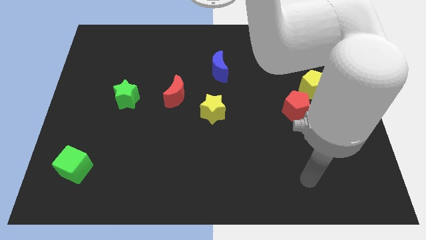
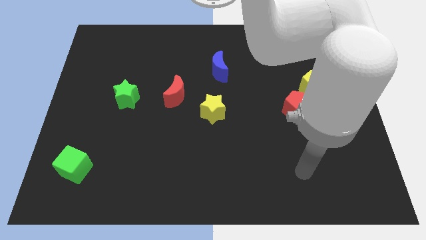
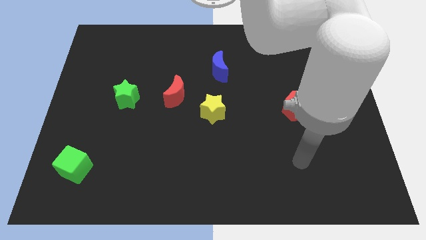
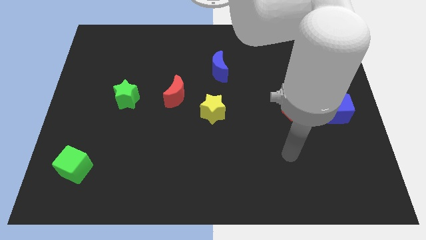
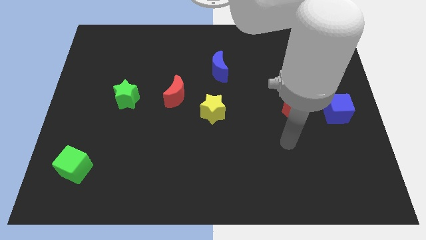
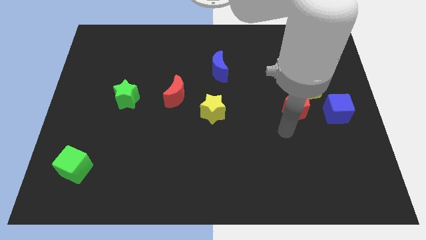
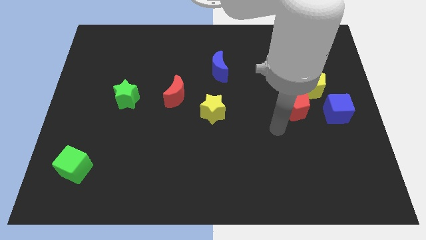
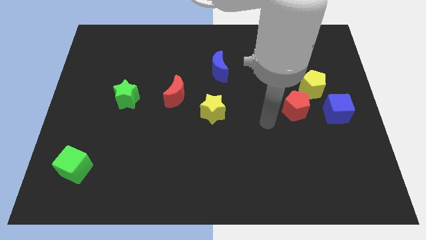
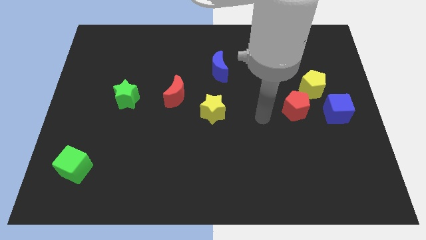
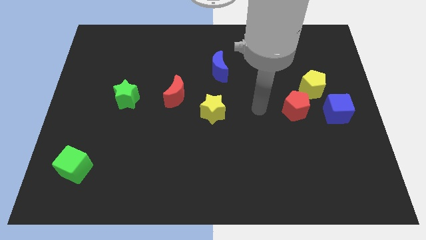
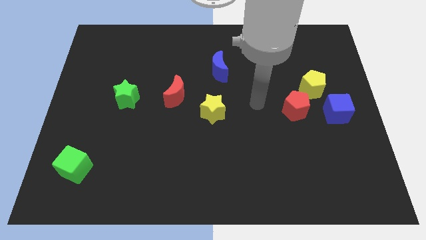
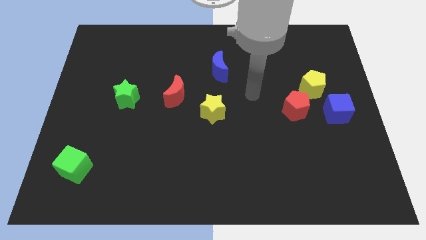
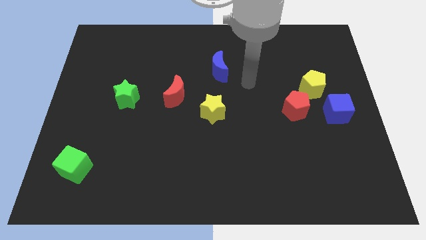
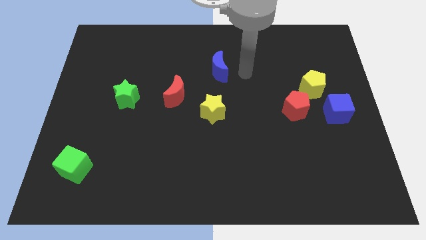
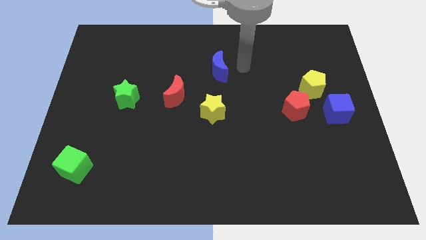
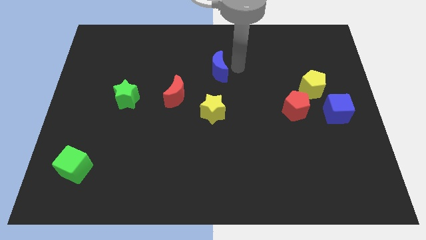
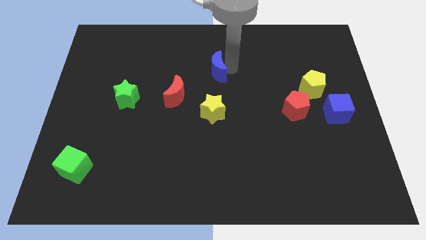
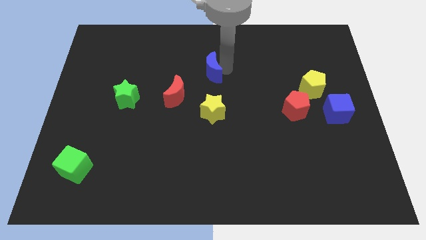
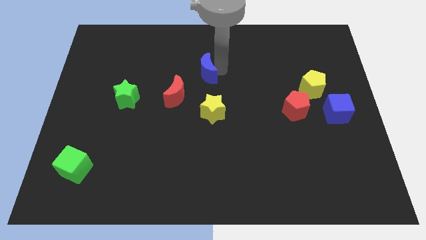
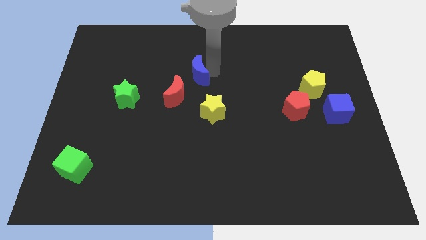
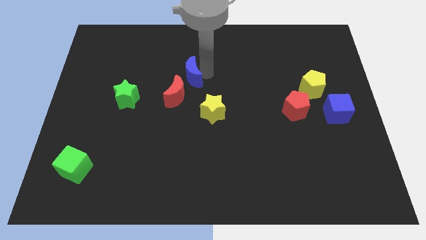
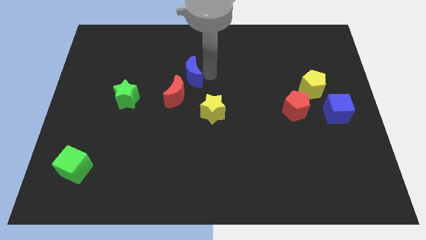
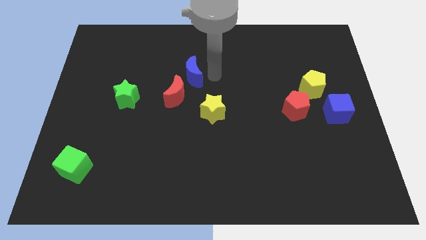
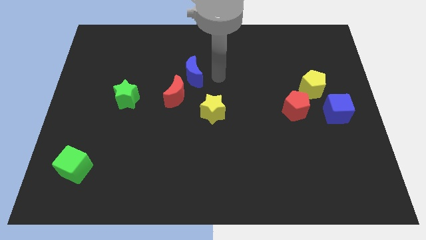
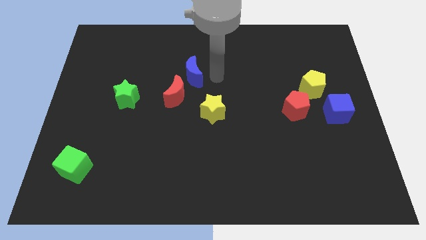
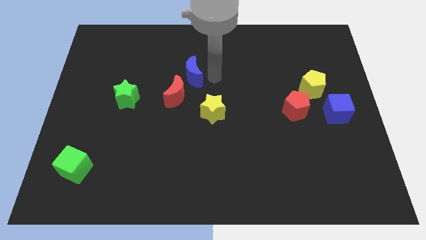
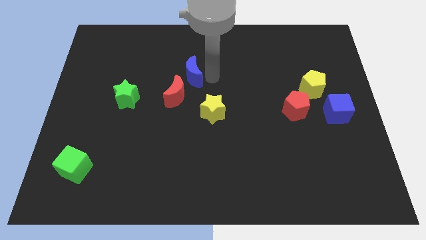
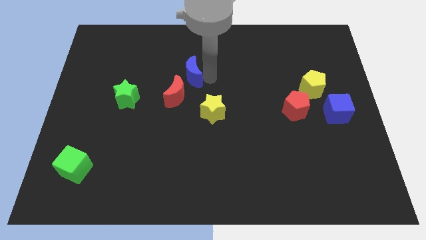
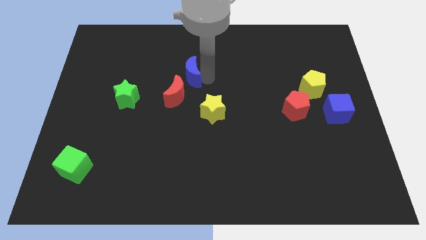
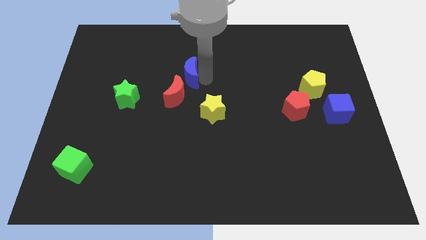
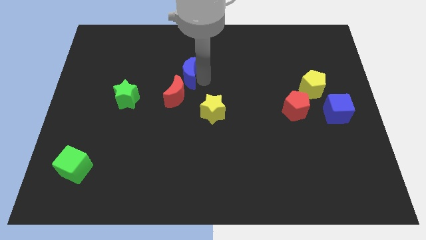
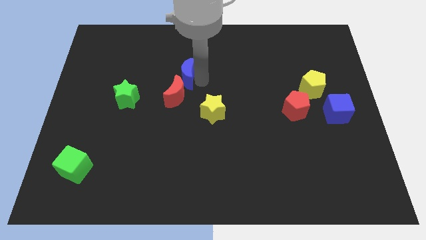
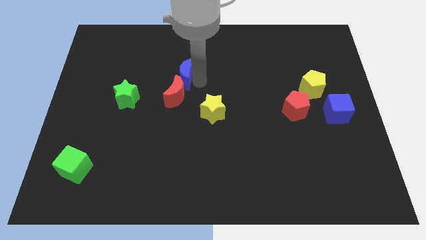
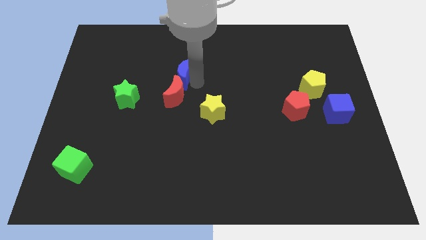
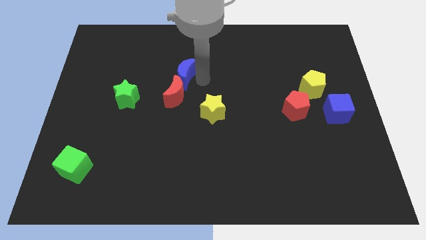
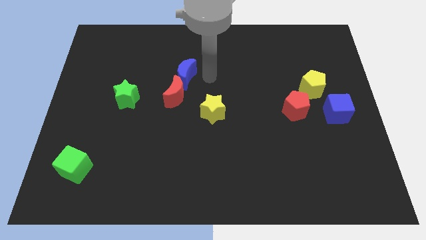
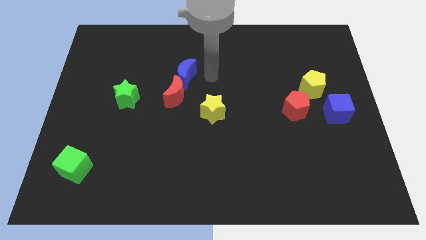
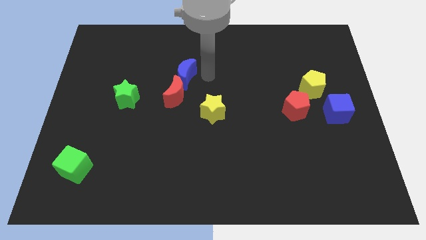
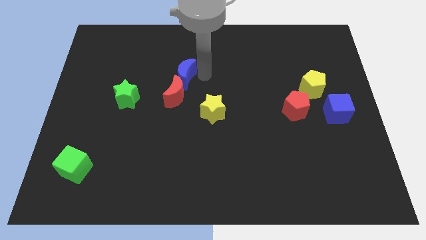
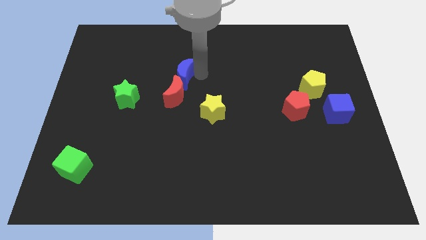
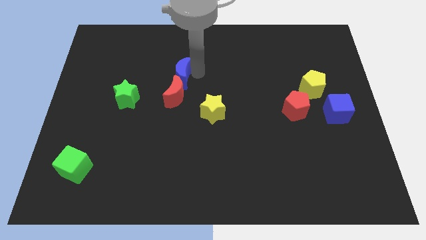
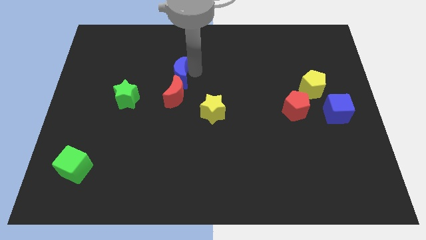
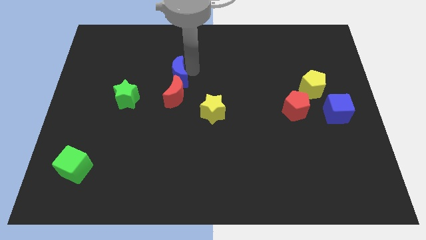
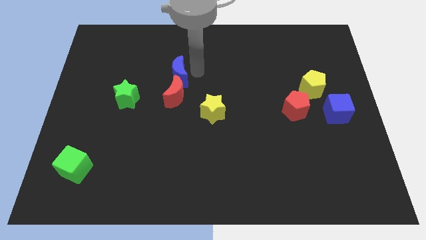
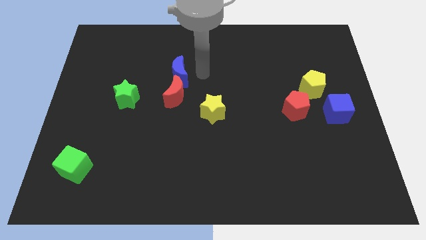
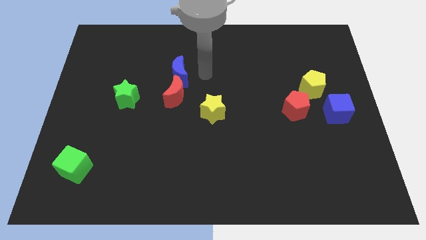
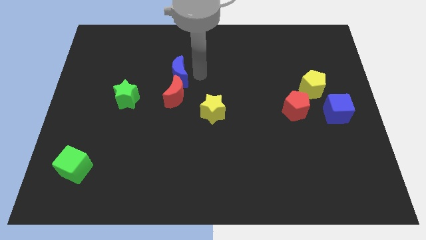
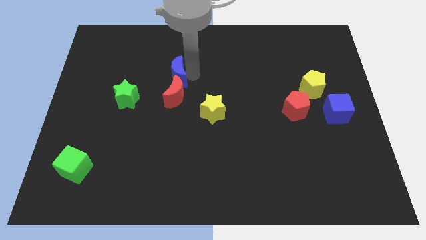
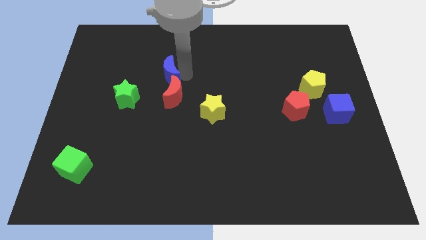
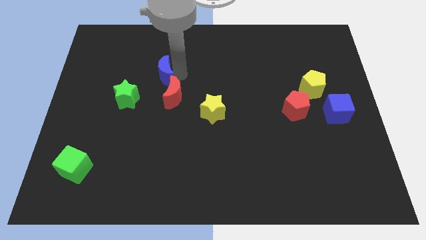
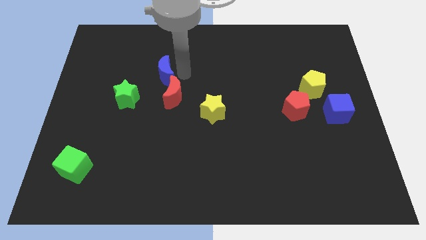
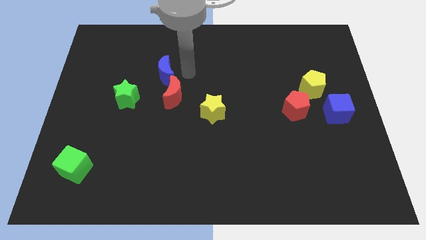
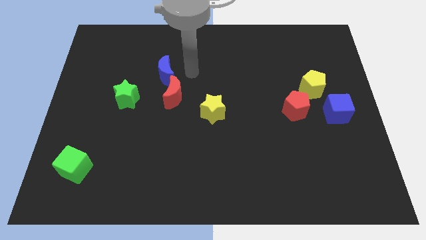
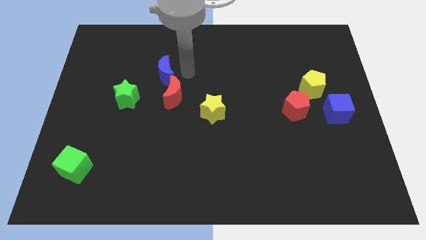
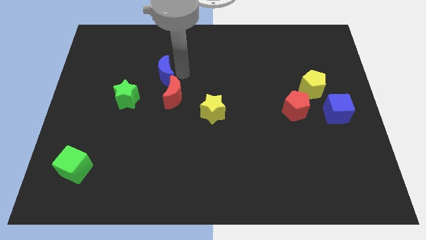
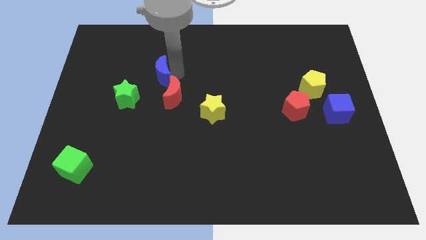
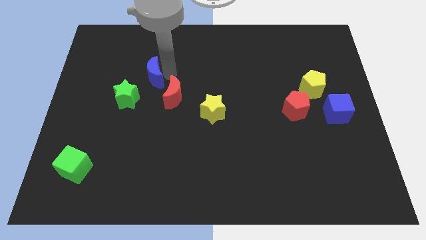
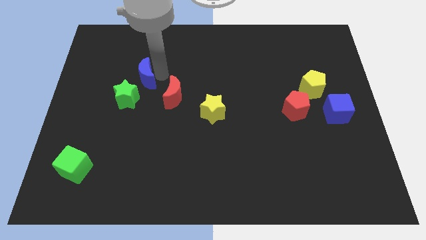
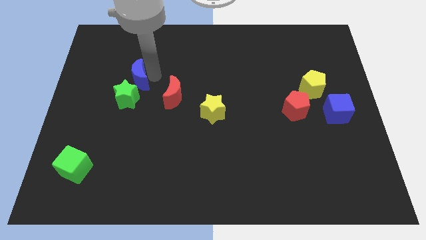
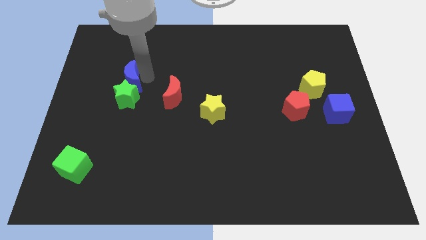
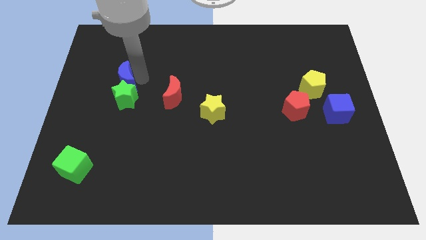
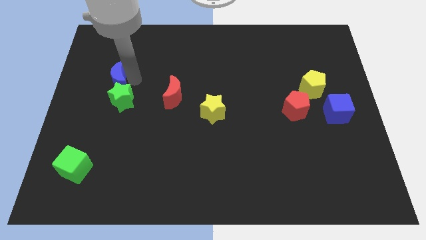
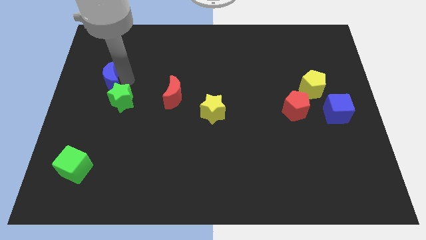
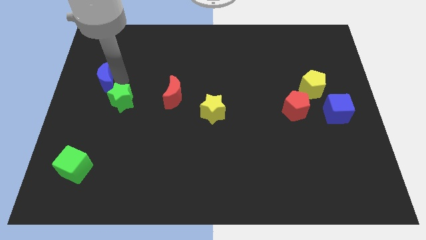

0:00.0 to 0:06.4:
slide the blue moon to the left side of the board
